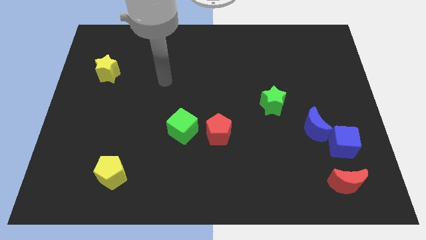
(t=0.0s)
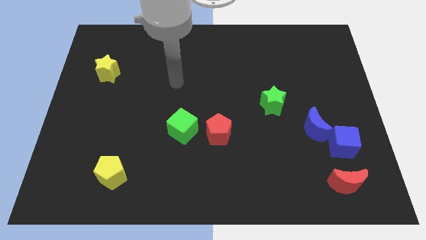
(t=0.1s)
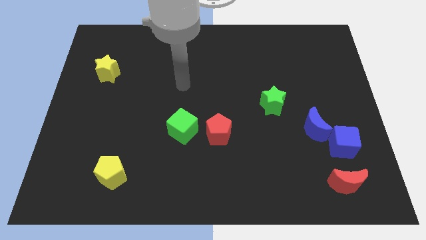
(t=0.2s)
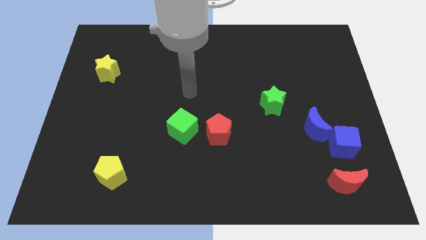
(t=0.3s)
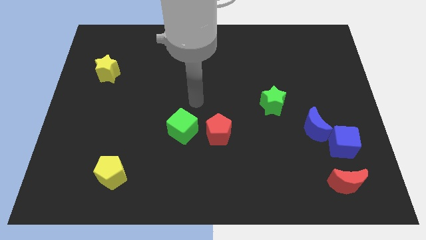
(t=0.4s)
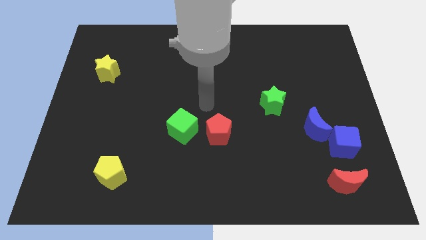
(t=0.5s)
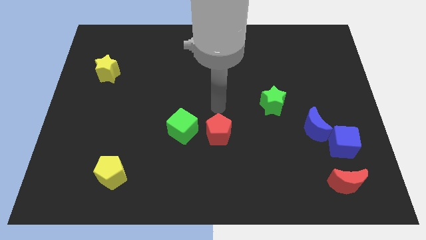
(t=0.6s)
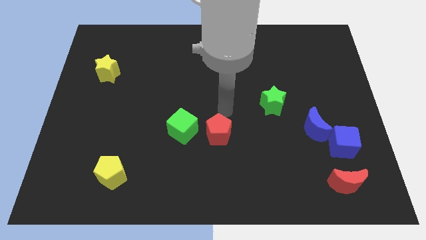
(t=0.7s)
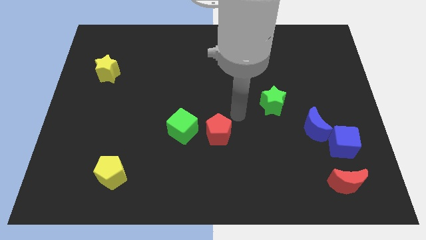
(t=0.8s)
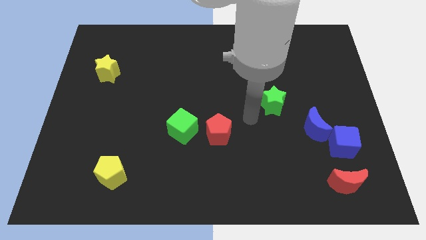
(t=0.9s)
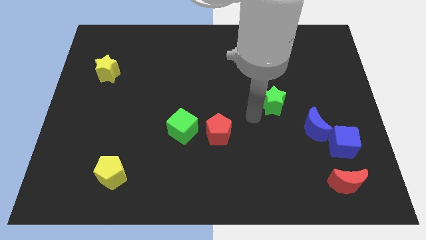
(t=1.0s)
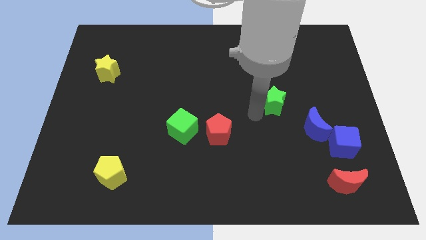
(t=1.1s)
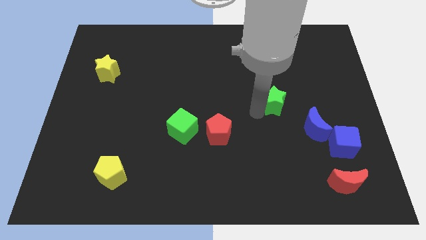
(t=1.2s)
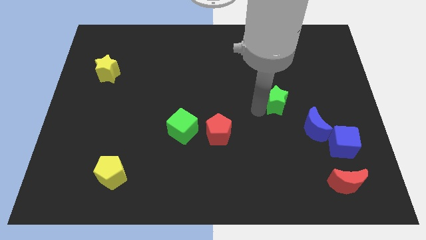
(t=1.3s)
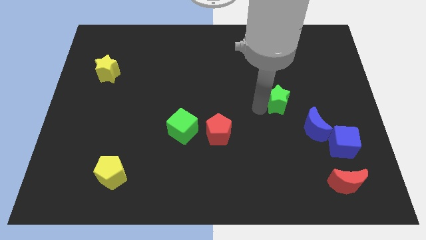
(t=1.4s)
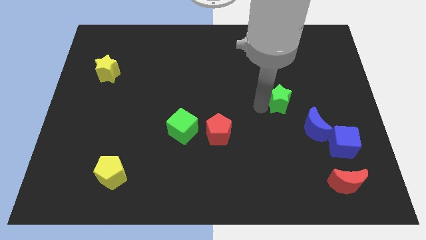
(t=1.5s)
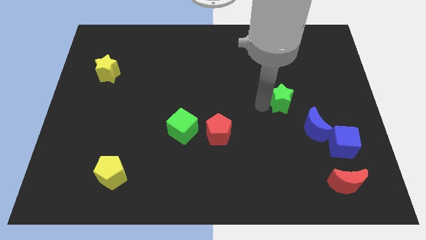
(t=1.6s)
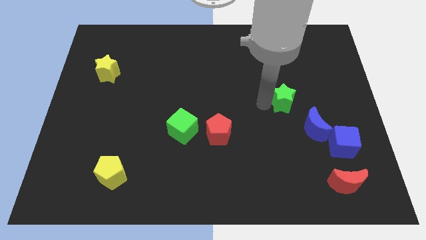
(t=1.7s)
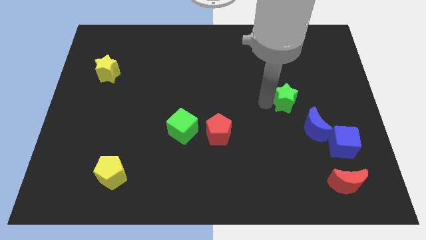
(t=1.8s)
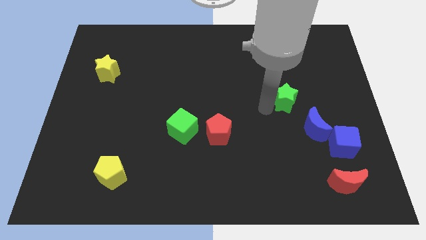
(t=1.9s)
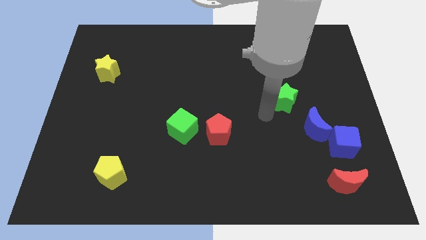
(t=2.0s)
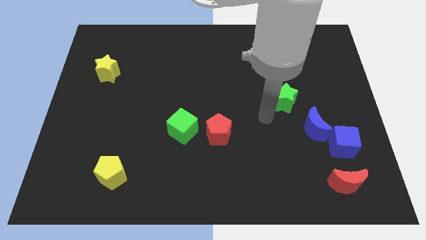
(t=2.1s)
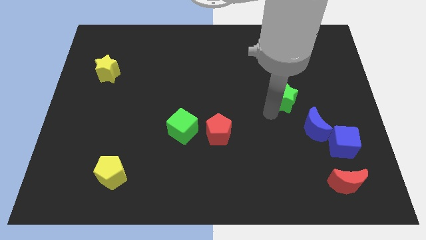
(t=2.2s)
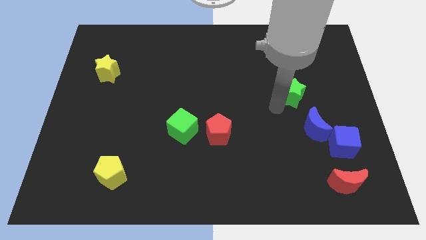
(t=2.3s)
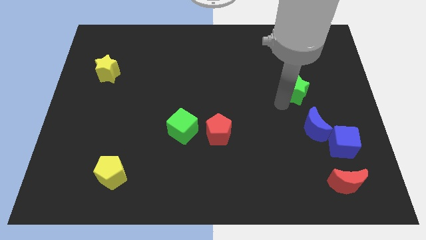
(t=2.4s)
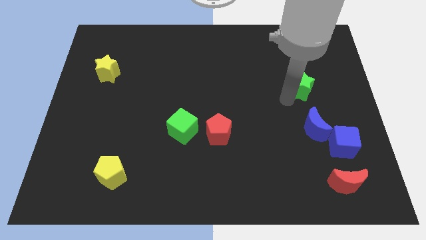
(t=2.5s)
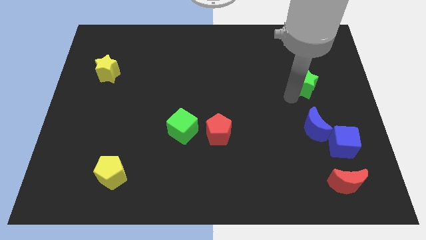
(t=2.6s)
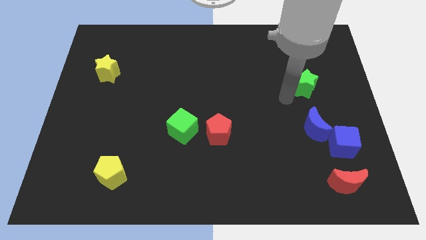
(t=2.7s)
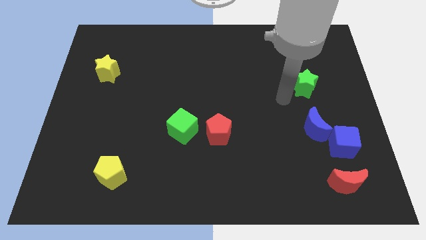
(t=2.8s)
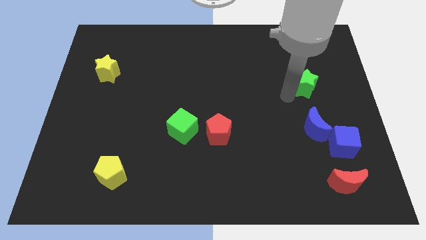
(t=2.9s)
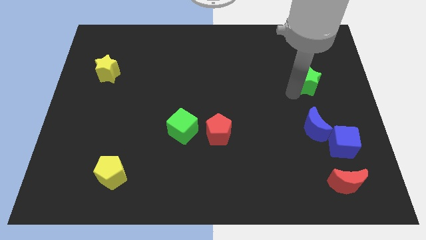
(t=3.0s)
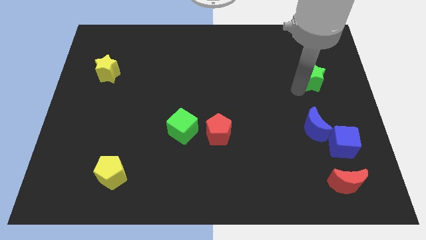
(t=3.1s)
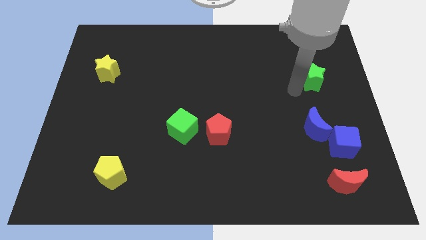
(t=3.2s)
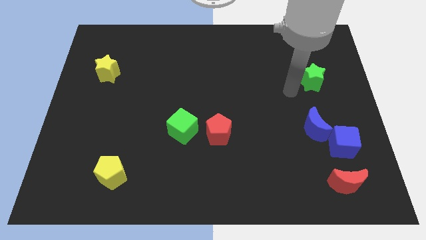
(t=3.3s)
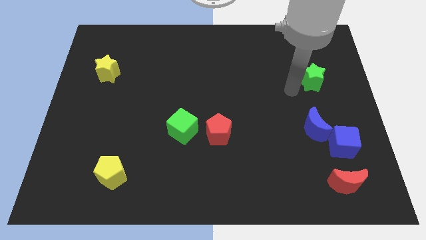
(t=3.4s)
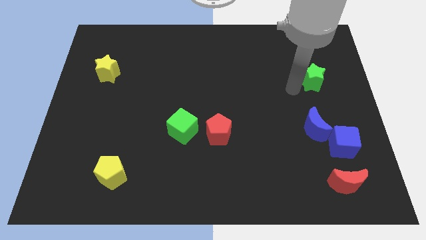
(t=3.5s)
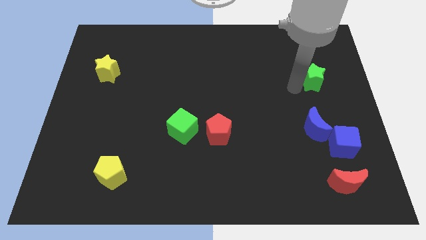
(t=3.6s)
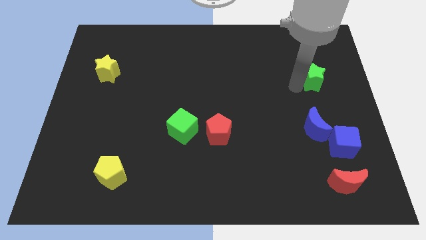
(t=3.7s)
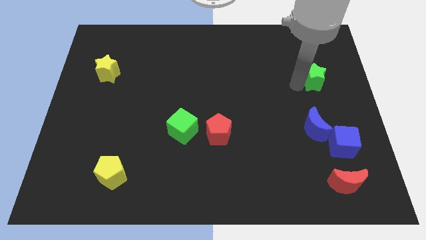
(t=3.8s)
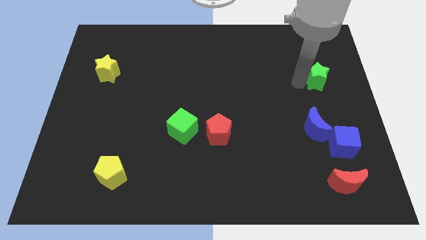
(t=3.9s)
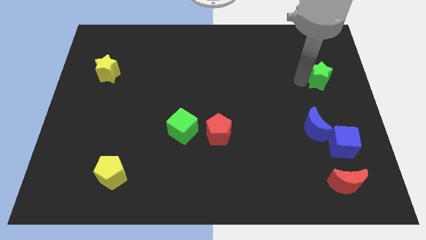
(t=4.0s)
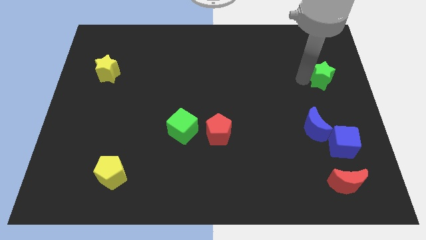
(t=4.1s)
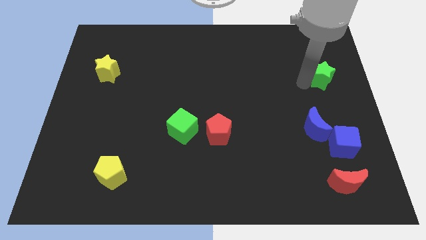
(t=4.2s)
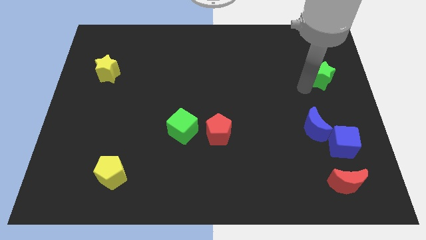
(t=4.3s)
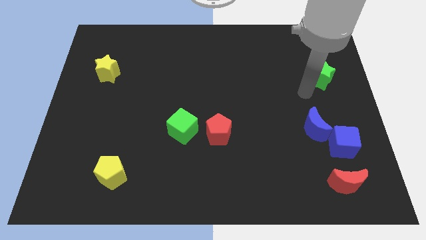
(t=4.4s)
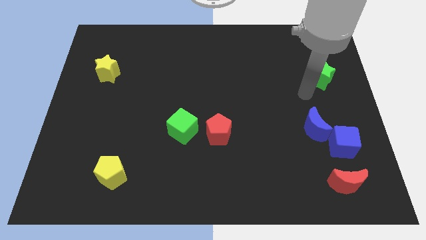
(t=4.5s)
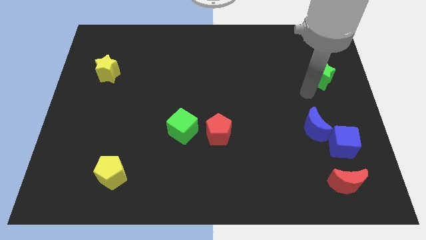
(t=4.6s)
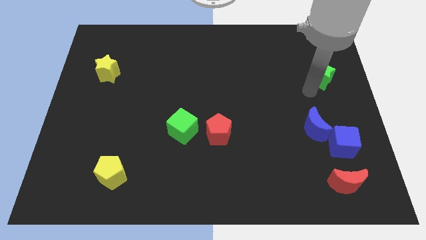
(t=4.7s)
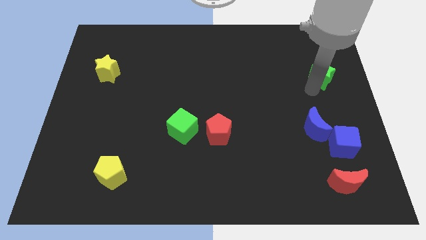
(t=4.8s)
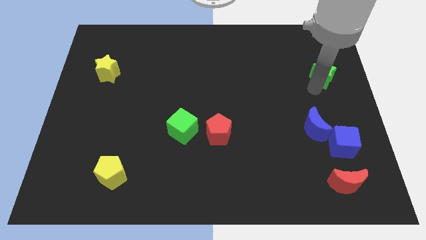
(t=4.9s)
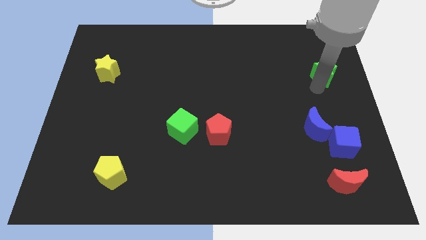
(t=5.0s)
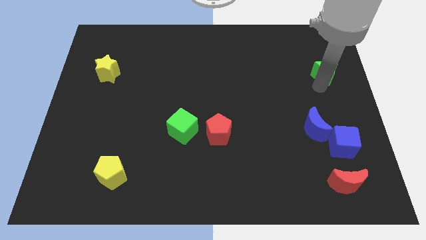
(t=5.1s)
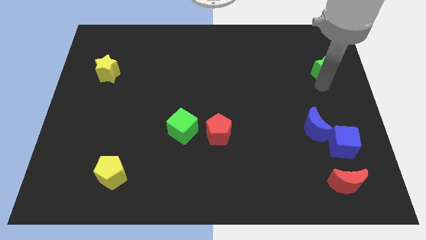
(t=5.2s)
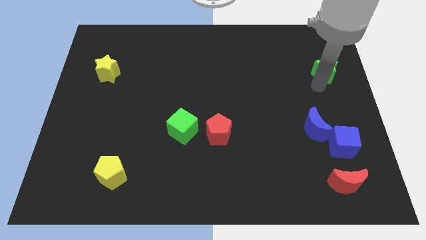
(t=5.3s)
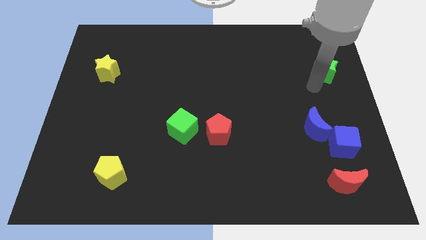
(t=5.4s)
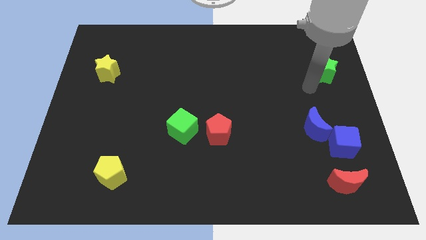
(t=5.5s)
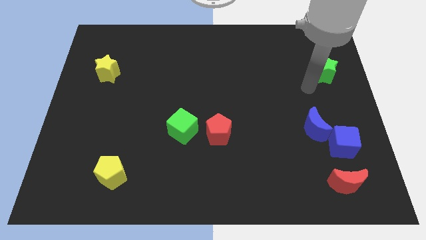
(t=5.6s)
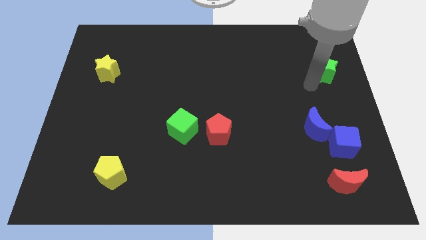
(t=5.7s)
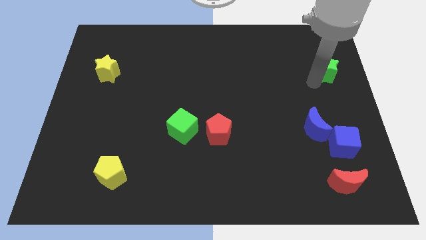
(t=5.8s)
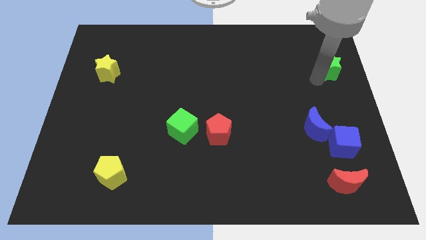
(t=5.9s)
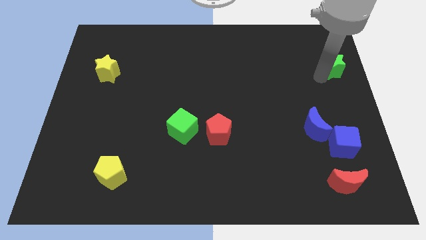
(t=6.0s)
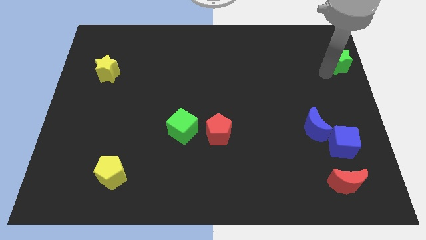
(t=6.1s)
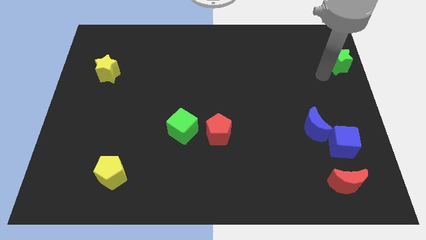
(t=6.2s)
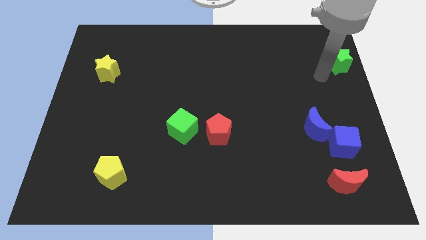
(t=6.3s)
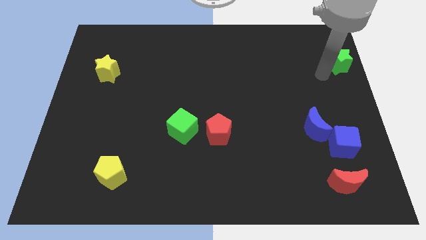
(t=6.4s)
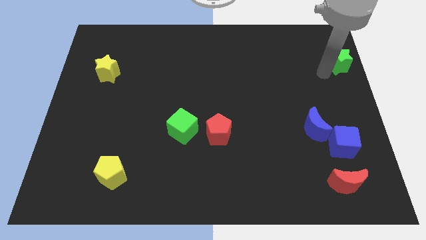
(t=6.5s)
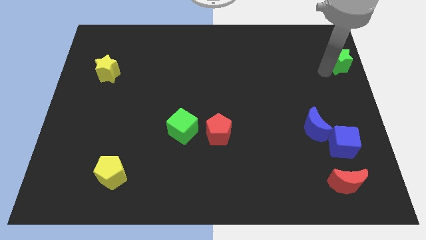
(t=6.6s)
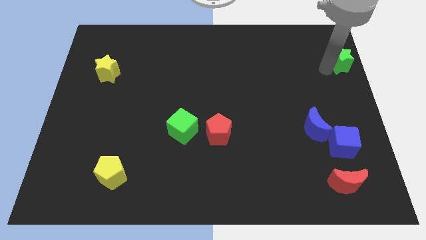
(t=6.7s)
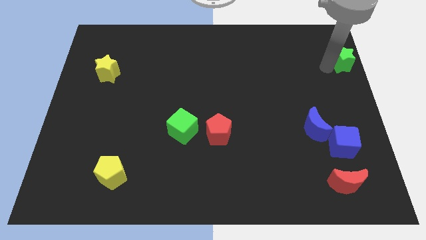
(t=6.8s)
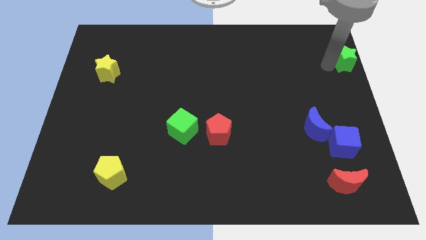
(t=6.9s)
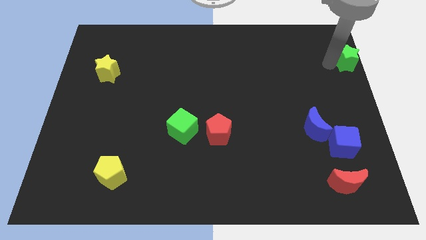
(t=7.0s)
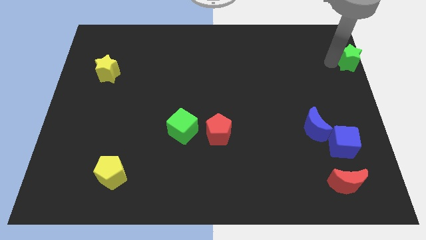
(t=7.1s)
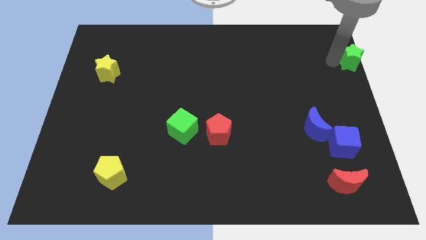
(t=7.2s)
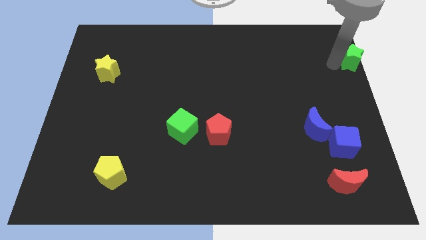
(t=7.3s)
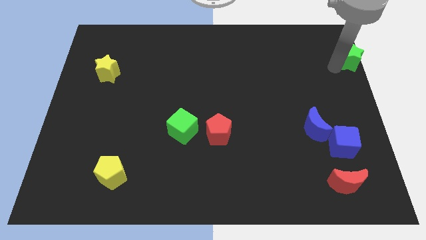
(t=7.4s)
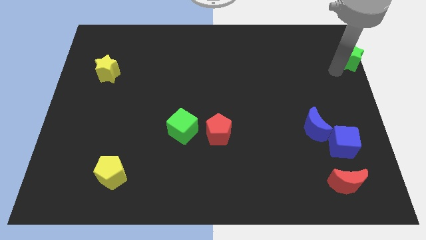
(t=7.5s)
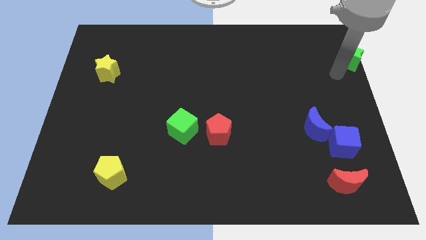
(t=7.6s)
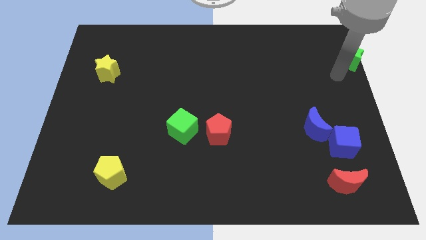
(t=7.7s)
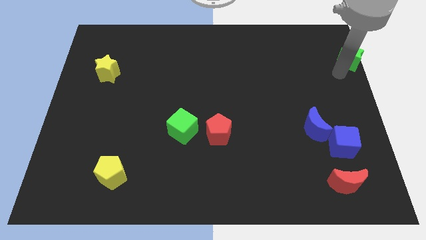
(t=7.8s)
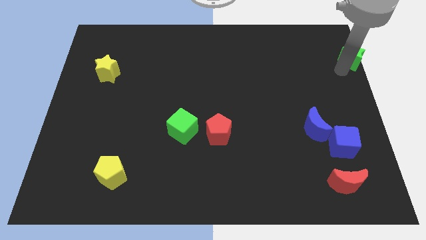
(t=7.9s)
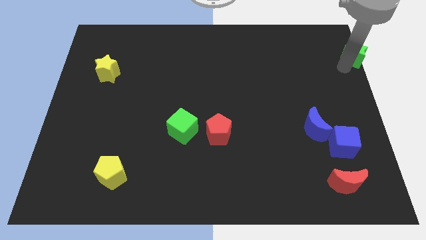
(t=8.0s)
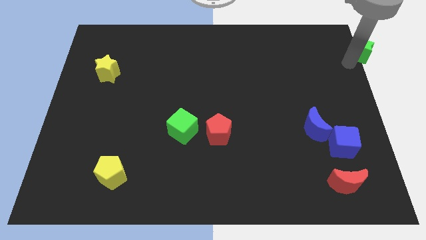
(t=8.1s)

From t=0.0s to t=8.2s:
slide the green star to the top right corner
